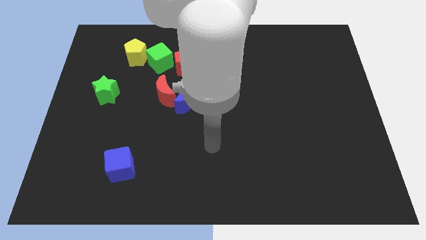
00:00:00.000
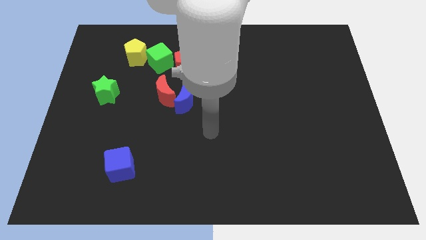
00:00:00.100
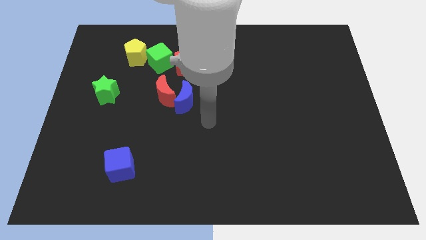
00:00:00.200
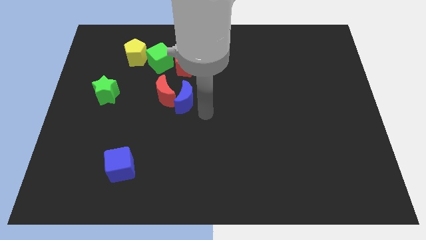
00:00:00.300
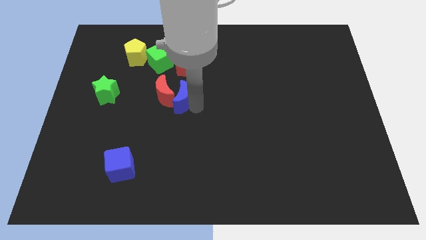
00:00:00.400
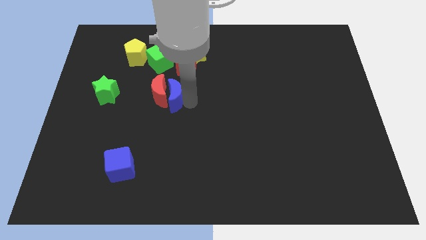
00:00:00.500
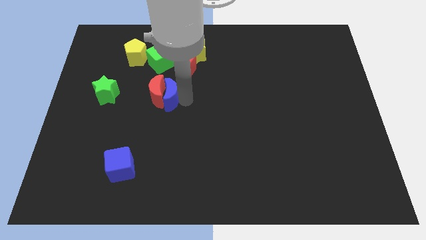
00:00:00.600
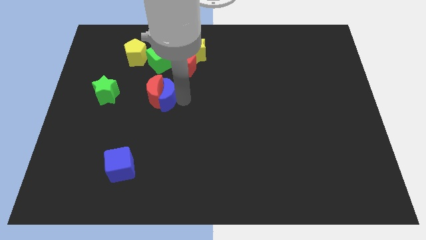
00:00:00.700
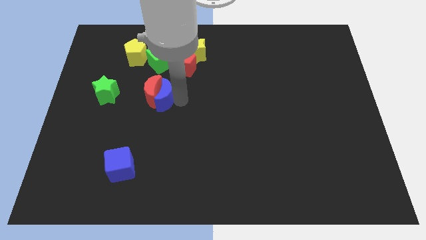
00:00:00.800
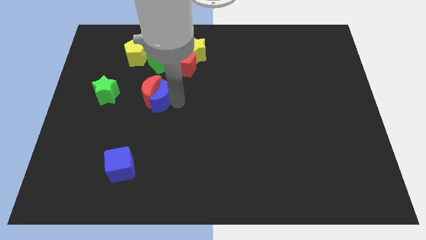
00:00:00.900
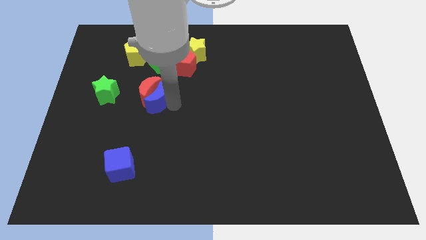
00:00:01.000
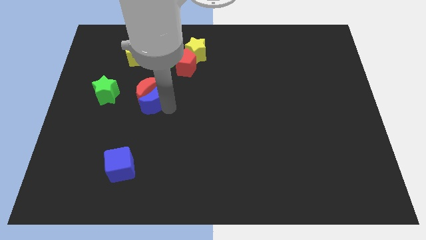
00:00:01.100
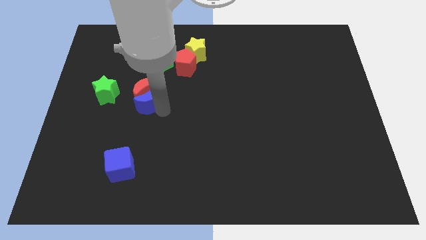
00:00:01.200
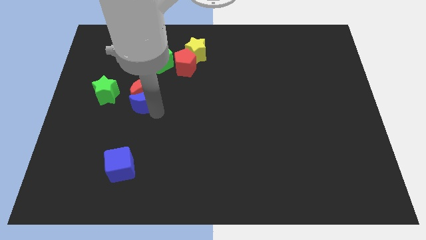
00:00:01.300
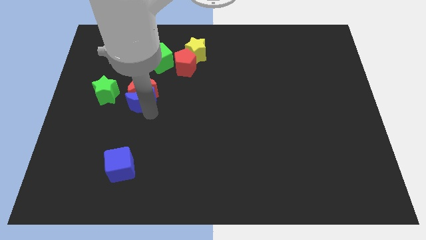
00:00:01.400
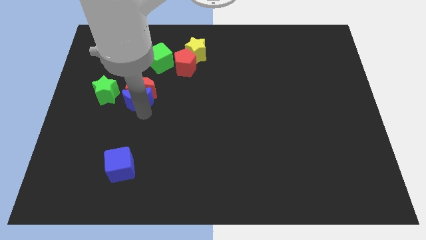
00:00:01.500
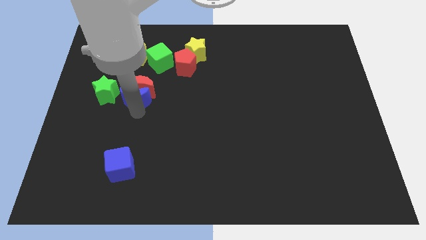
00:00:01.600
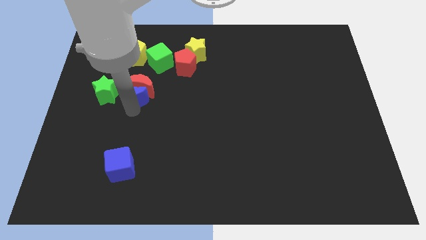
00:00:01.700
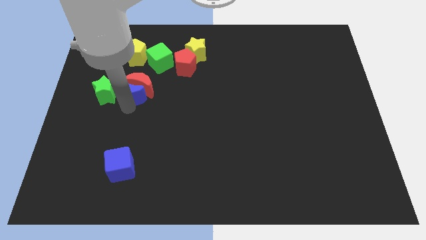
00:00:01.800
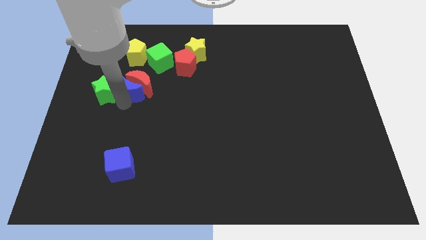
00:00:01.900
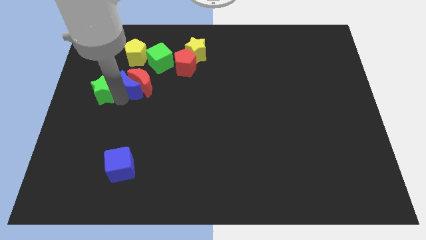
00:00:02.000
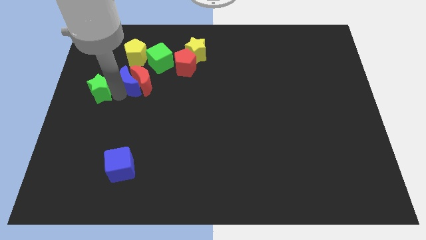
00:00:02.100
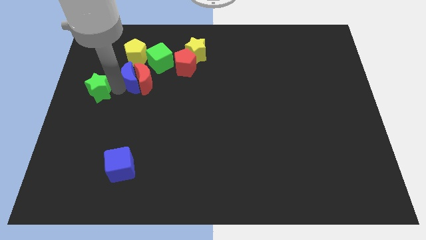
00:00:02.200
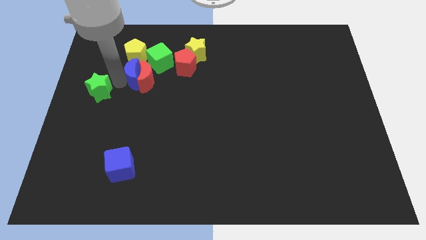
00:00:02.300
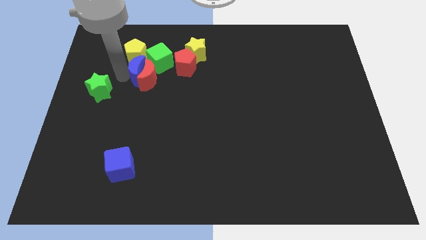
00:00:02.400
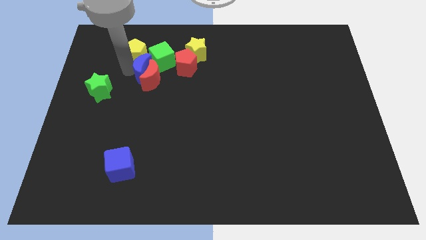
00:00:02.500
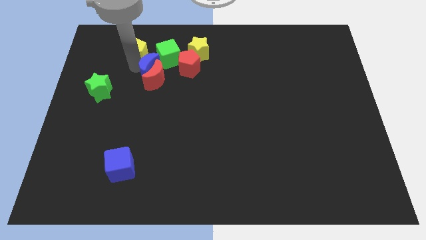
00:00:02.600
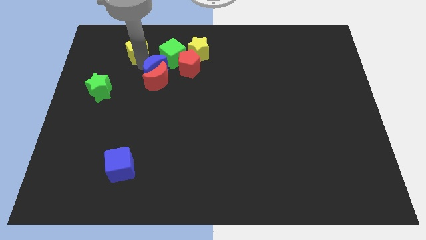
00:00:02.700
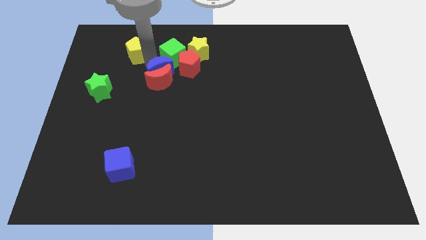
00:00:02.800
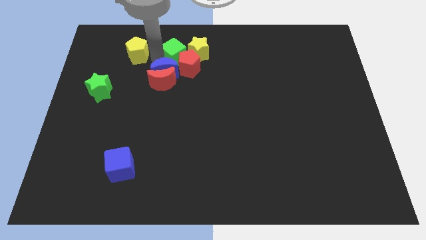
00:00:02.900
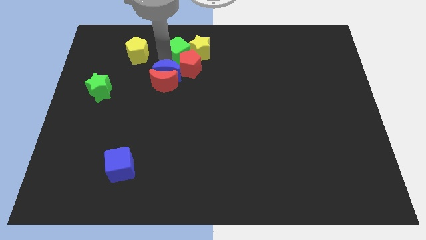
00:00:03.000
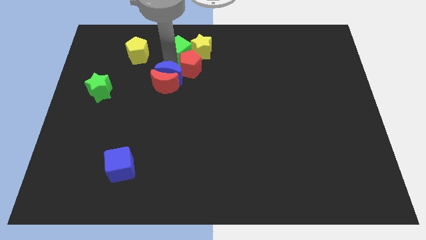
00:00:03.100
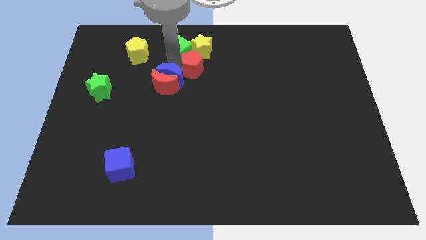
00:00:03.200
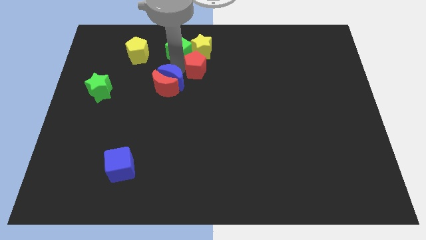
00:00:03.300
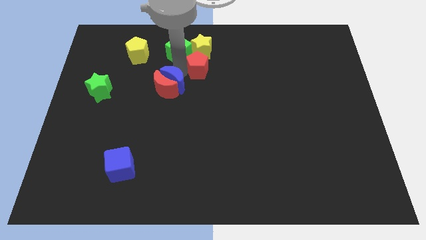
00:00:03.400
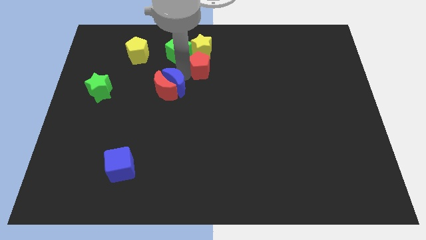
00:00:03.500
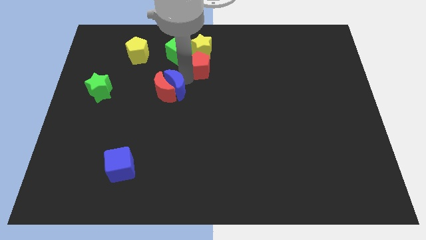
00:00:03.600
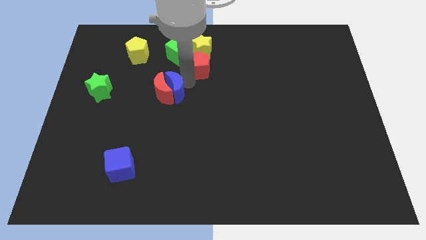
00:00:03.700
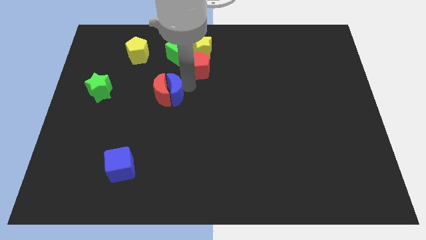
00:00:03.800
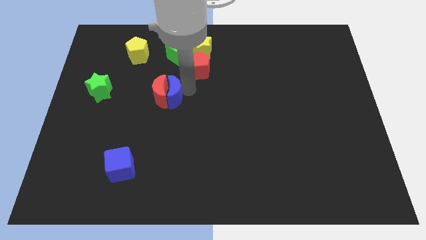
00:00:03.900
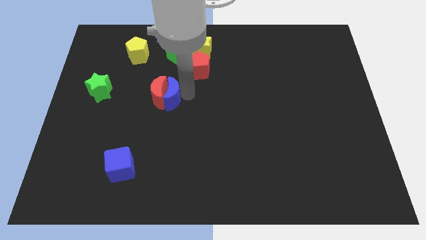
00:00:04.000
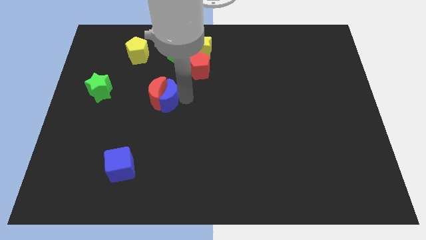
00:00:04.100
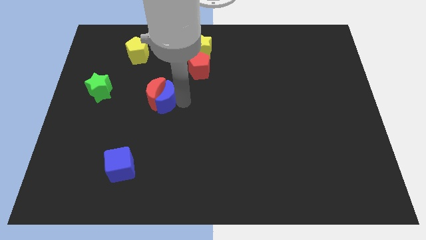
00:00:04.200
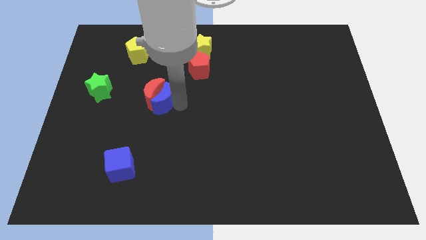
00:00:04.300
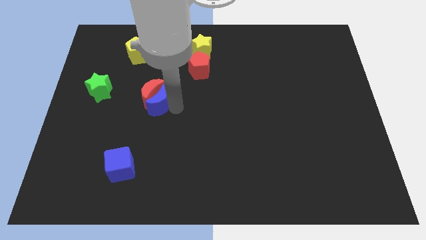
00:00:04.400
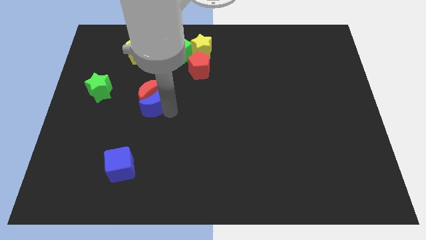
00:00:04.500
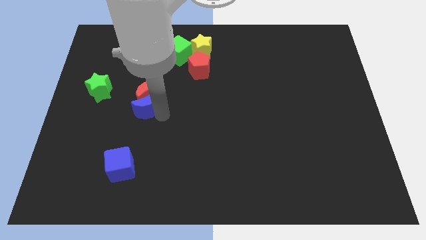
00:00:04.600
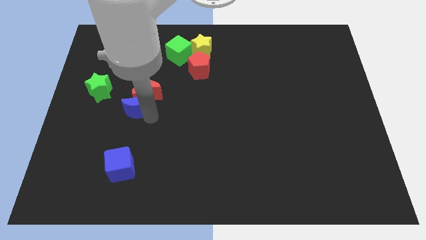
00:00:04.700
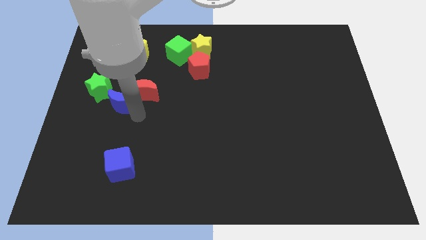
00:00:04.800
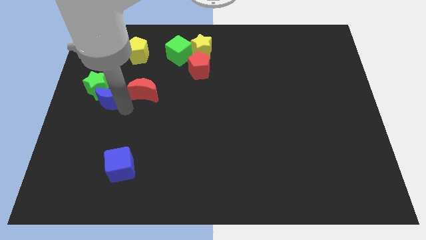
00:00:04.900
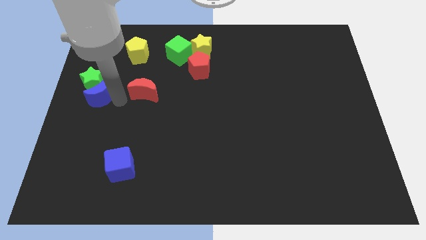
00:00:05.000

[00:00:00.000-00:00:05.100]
pull the red moon apart from the blue moon

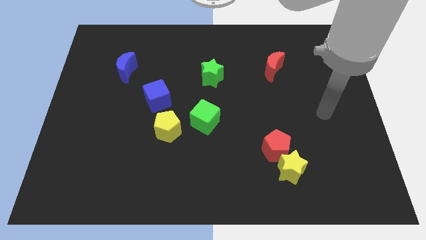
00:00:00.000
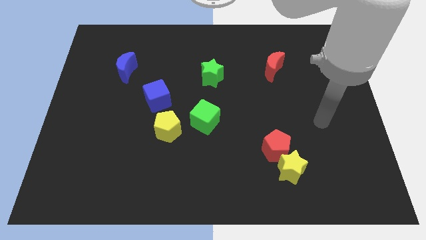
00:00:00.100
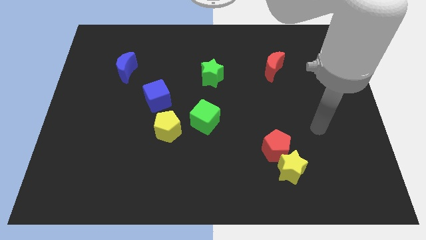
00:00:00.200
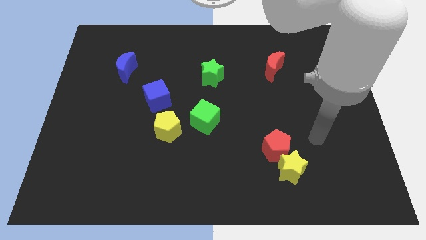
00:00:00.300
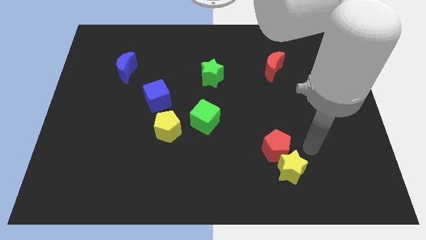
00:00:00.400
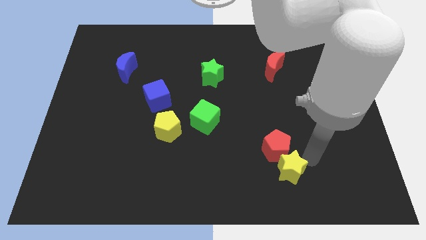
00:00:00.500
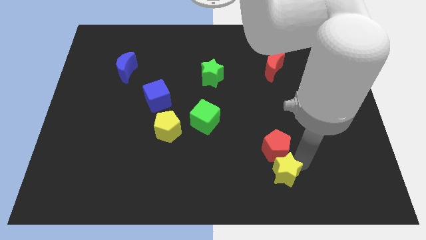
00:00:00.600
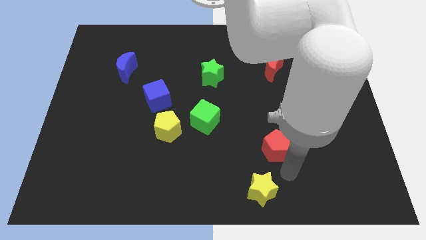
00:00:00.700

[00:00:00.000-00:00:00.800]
separate the red pentagon from the yellow star

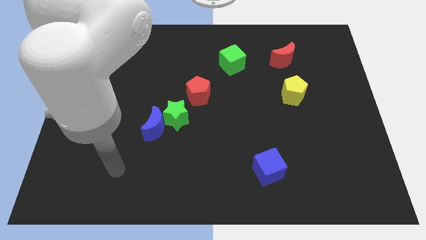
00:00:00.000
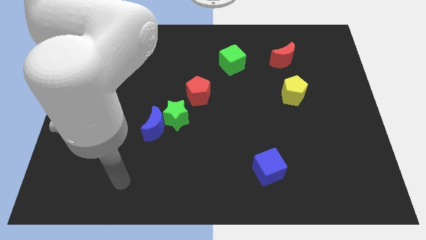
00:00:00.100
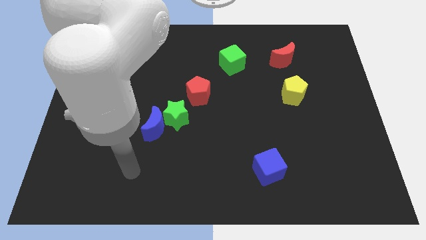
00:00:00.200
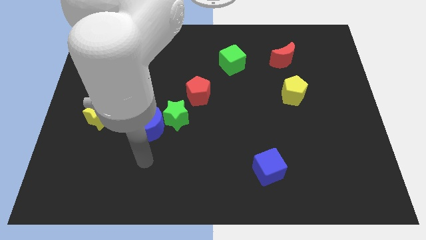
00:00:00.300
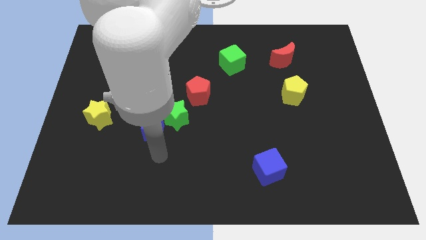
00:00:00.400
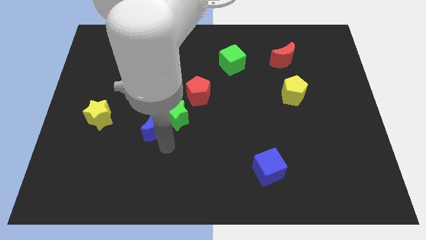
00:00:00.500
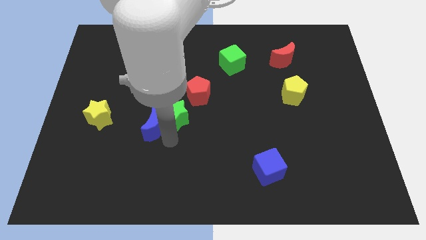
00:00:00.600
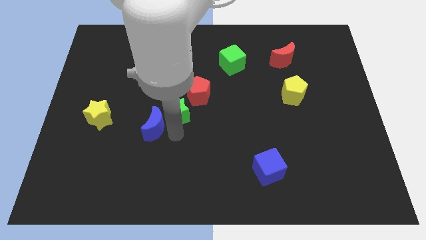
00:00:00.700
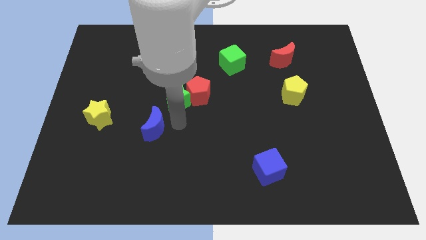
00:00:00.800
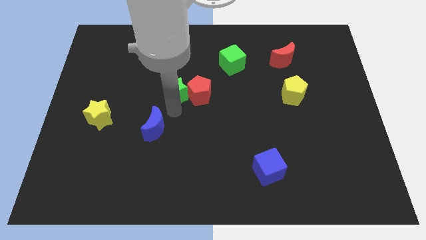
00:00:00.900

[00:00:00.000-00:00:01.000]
move the blue moon away from the green star

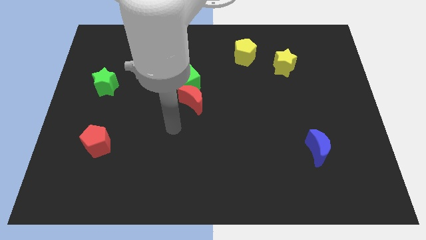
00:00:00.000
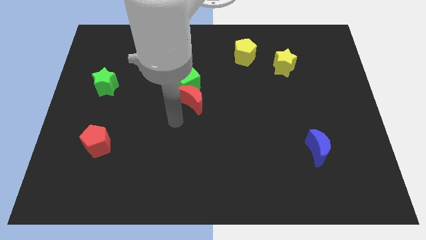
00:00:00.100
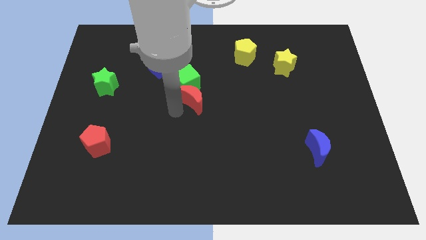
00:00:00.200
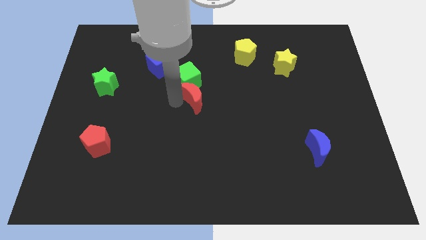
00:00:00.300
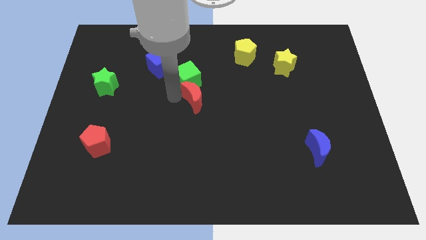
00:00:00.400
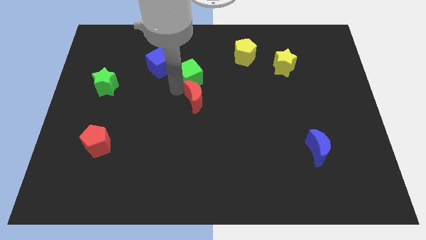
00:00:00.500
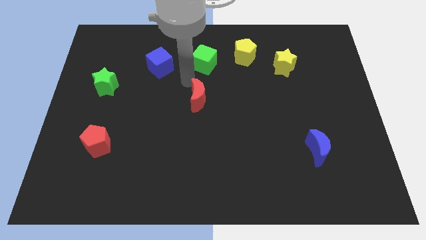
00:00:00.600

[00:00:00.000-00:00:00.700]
move the red moon away from the green cube

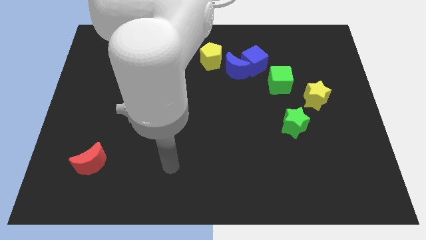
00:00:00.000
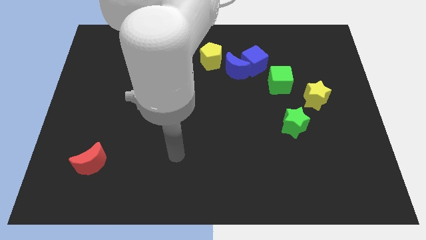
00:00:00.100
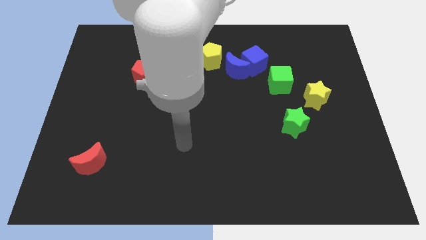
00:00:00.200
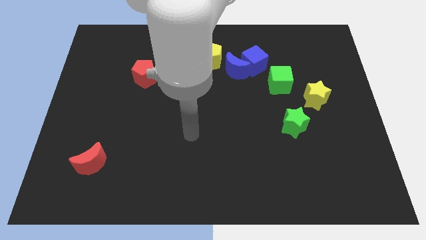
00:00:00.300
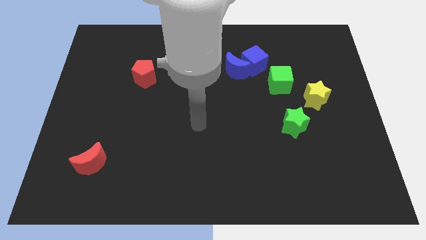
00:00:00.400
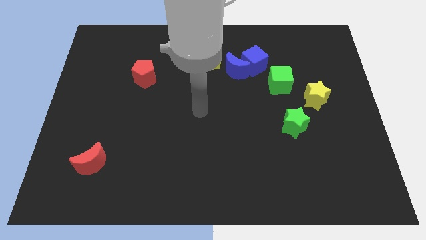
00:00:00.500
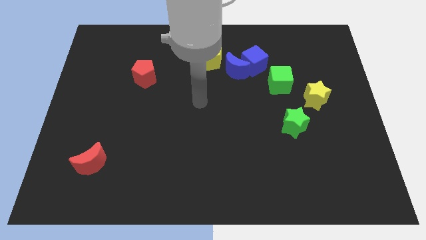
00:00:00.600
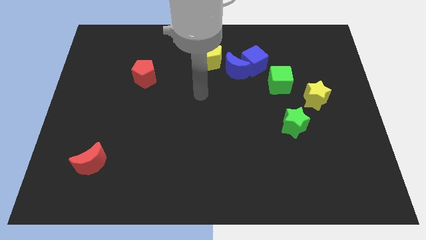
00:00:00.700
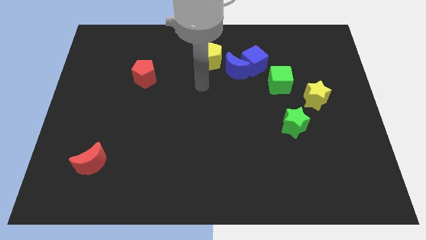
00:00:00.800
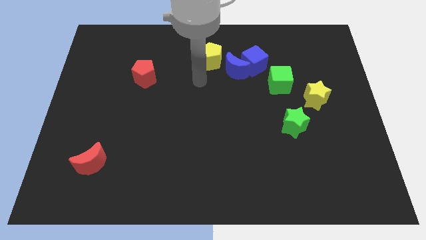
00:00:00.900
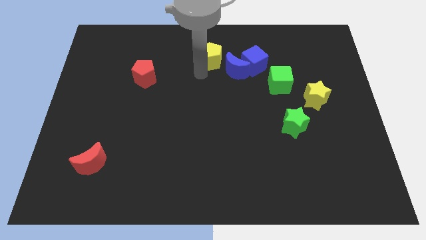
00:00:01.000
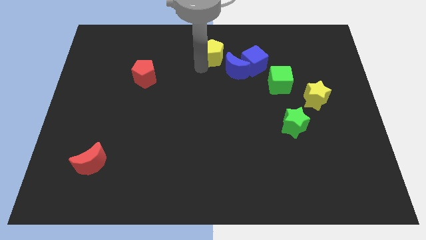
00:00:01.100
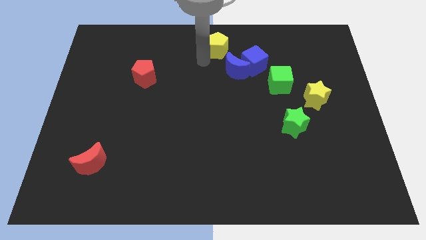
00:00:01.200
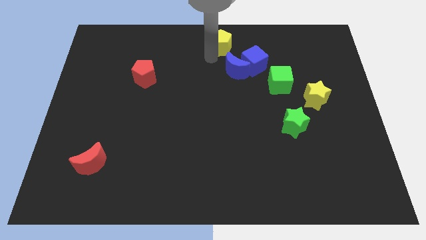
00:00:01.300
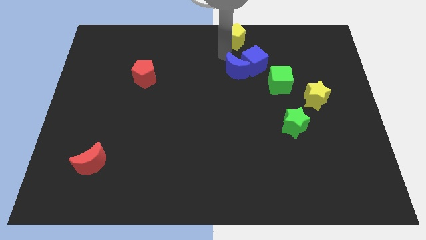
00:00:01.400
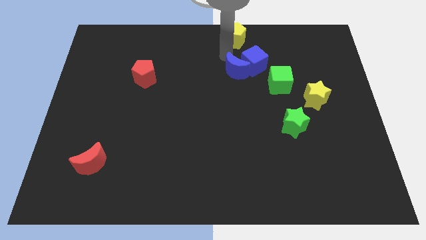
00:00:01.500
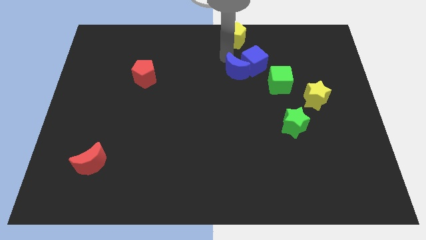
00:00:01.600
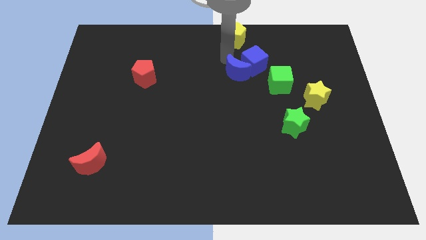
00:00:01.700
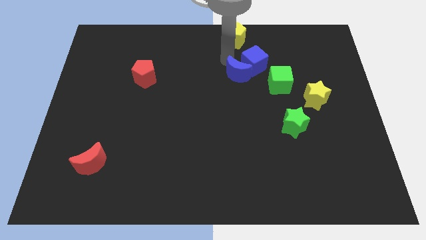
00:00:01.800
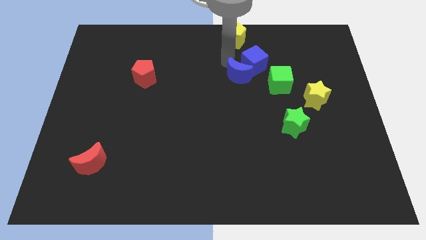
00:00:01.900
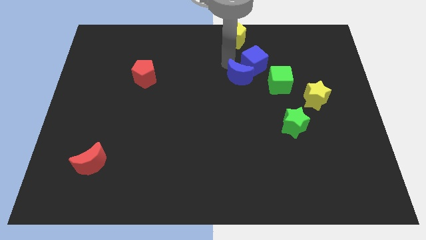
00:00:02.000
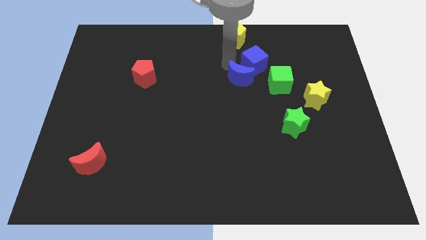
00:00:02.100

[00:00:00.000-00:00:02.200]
move the blue moon away from the blue cube and yellow pentagon
